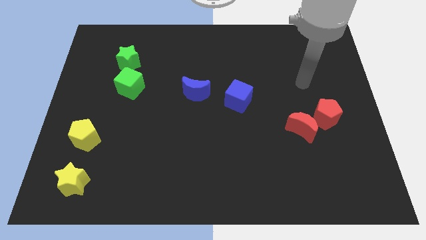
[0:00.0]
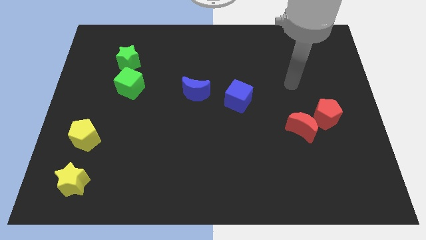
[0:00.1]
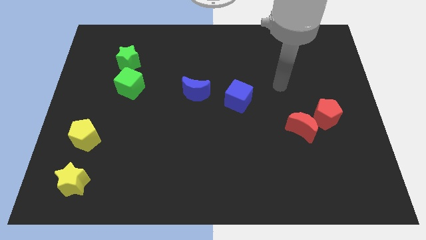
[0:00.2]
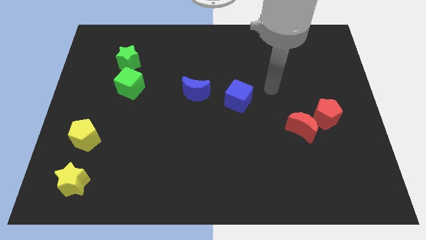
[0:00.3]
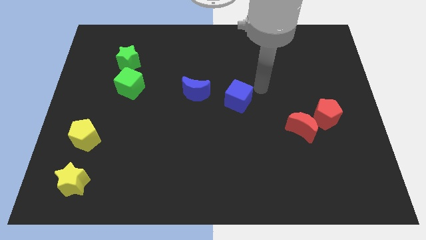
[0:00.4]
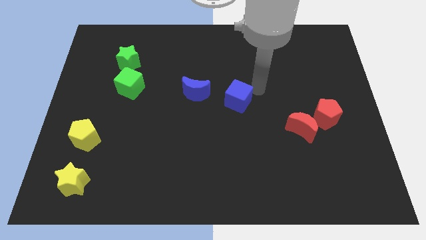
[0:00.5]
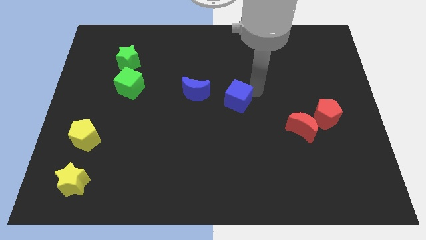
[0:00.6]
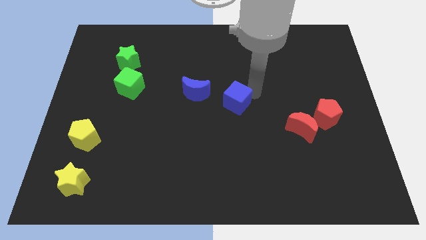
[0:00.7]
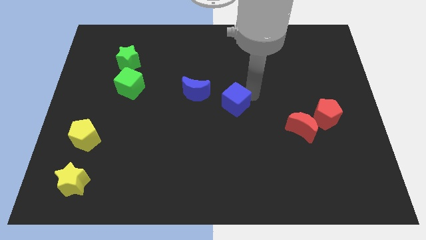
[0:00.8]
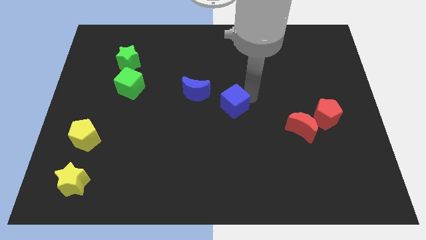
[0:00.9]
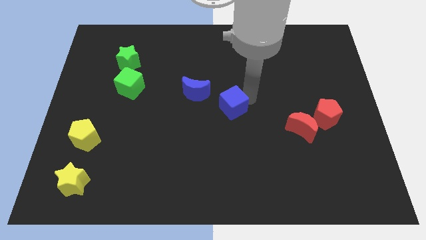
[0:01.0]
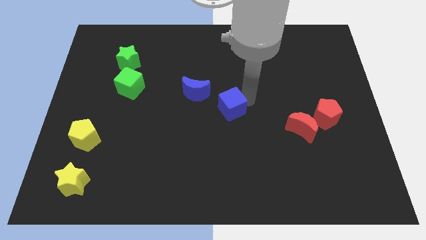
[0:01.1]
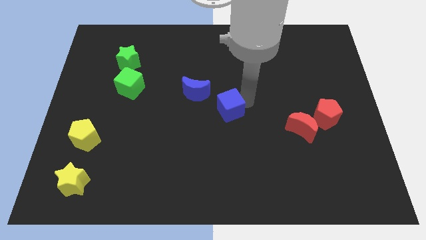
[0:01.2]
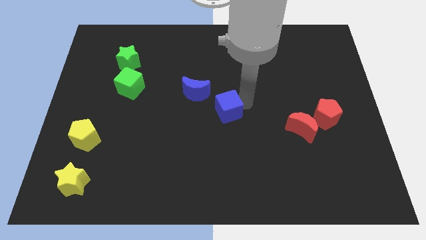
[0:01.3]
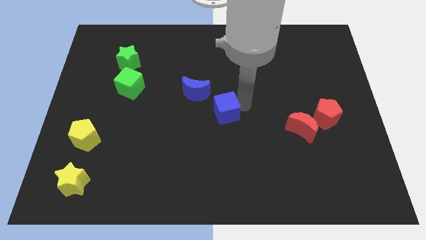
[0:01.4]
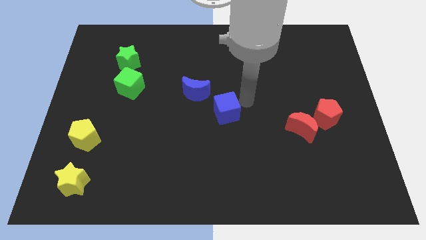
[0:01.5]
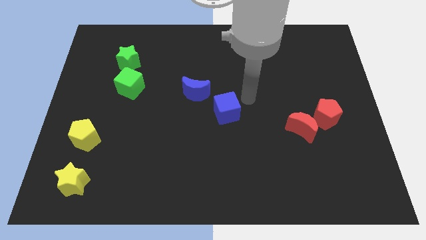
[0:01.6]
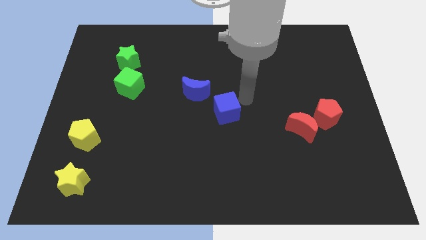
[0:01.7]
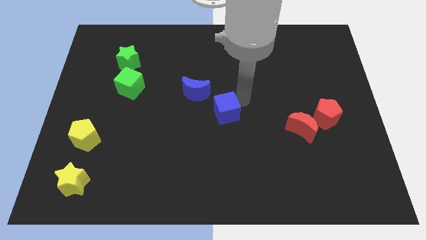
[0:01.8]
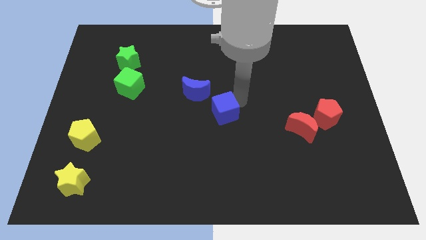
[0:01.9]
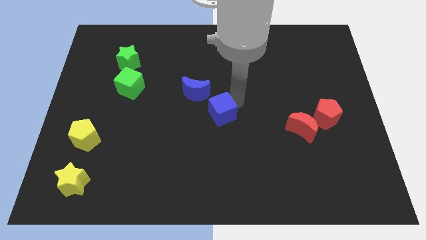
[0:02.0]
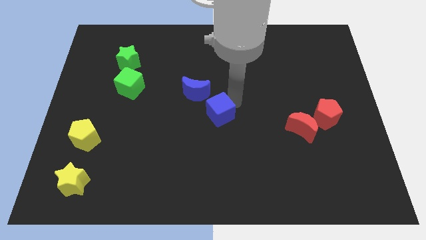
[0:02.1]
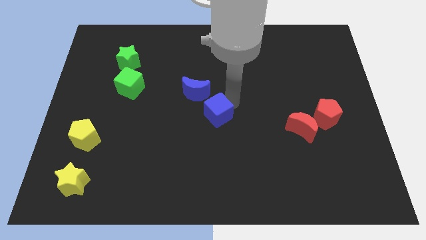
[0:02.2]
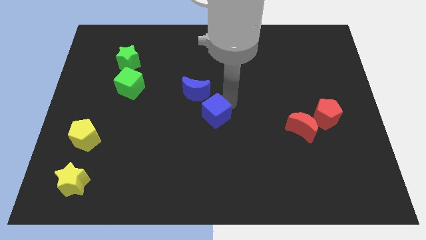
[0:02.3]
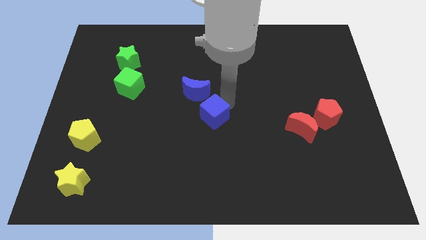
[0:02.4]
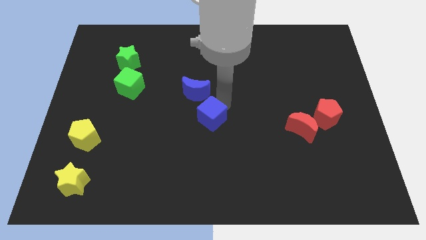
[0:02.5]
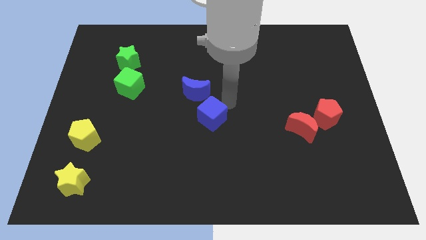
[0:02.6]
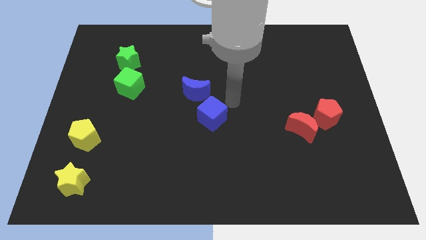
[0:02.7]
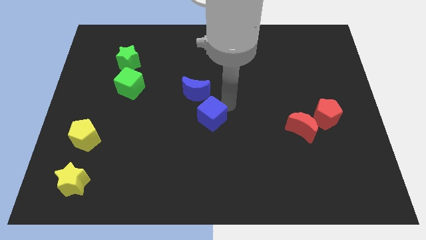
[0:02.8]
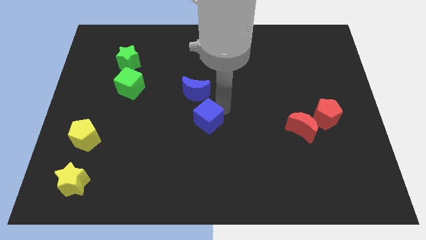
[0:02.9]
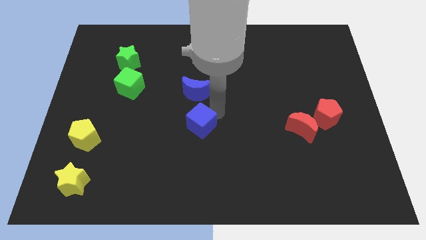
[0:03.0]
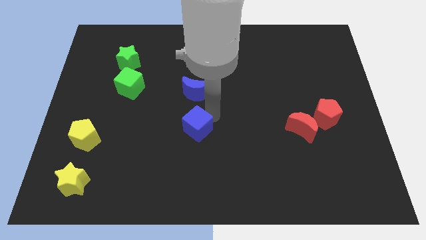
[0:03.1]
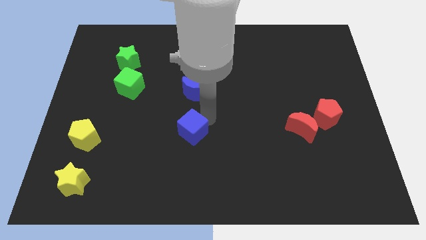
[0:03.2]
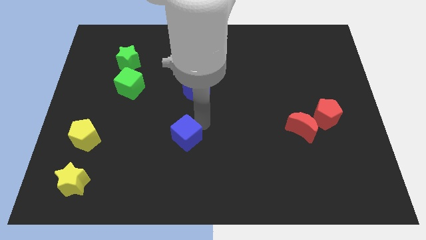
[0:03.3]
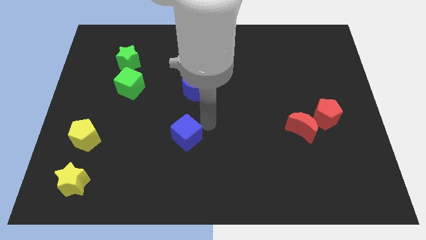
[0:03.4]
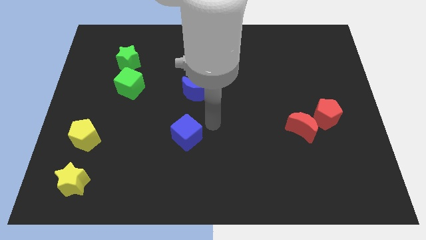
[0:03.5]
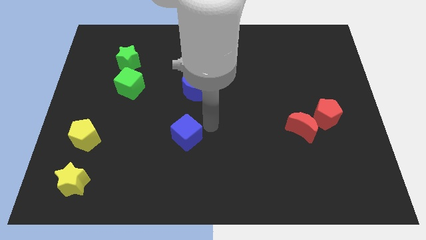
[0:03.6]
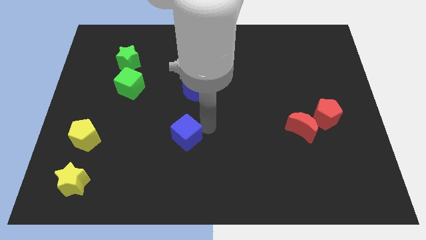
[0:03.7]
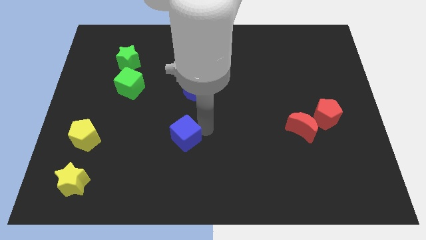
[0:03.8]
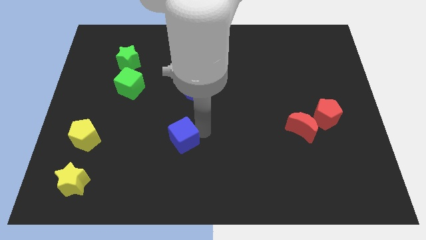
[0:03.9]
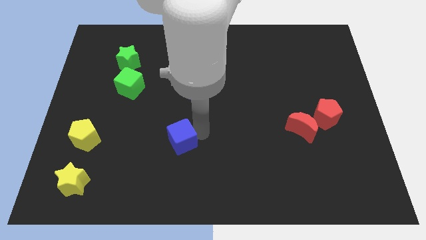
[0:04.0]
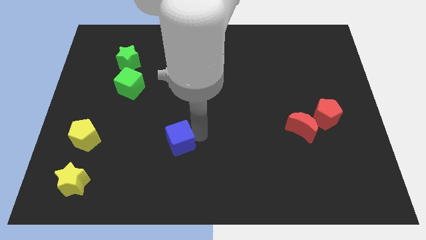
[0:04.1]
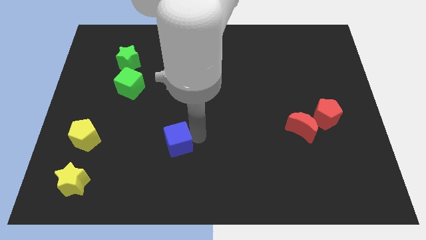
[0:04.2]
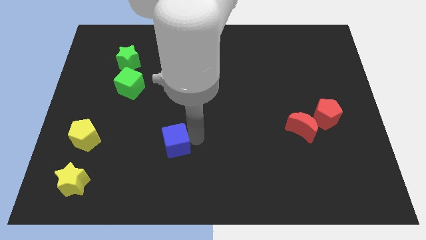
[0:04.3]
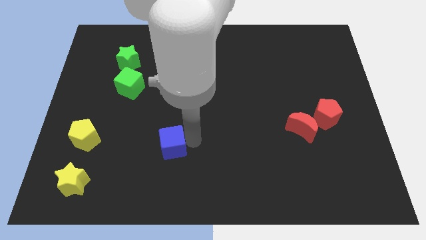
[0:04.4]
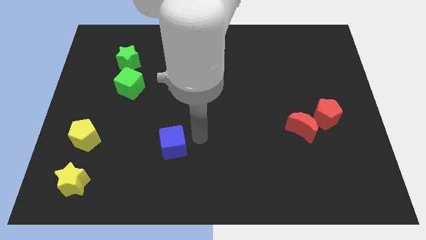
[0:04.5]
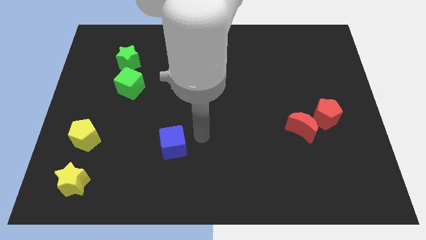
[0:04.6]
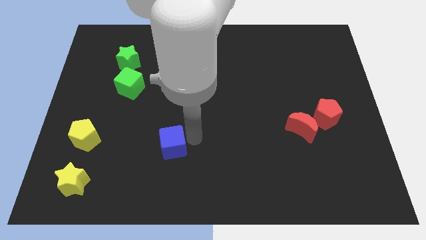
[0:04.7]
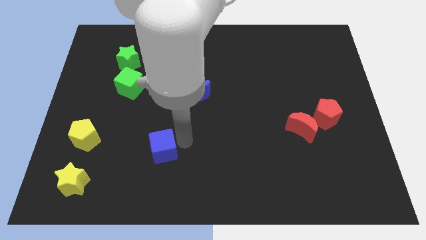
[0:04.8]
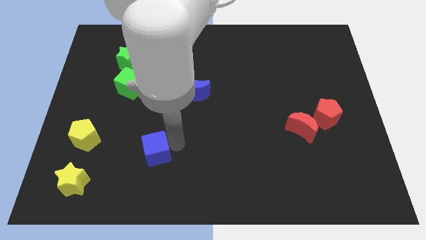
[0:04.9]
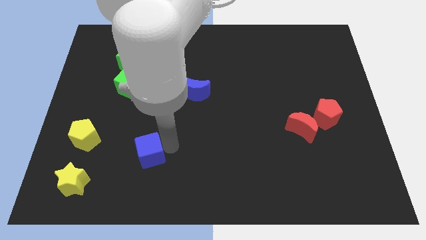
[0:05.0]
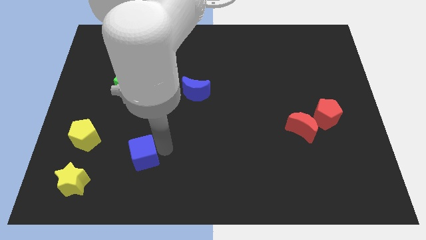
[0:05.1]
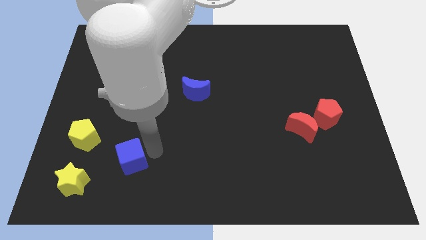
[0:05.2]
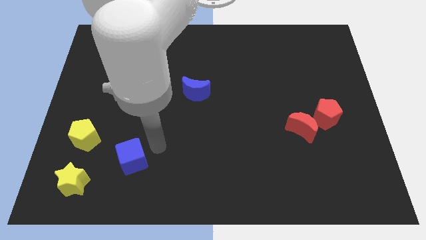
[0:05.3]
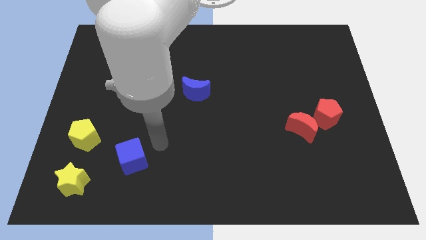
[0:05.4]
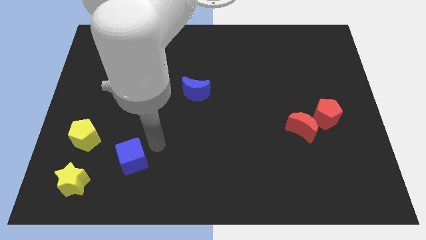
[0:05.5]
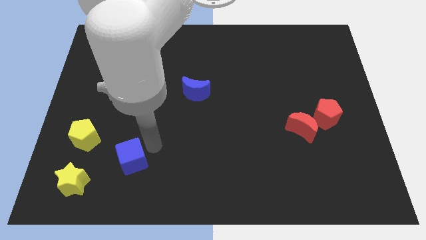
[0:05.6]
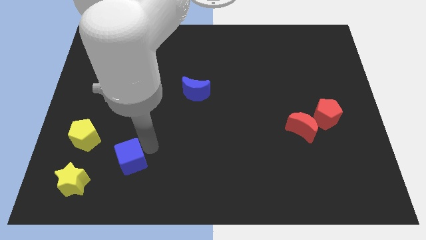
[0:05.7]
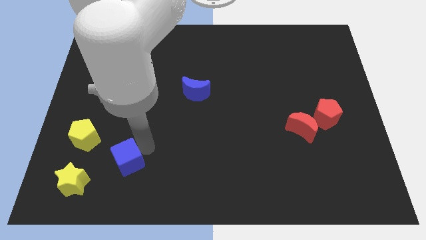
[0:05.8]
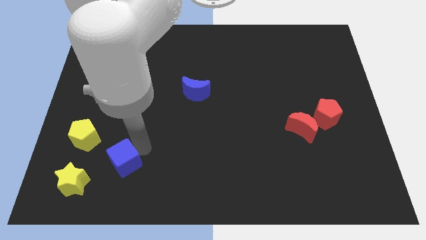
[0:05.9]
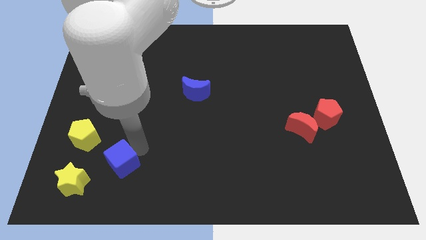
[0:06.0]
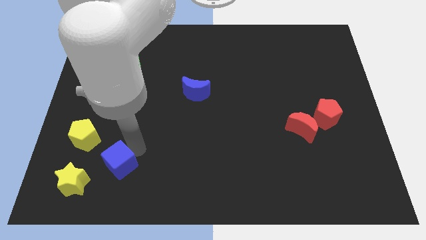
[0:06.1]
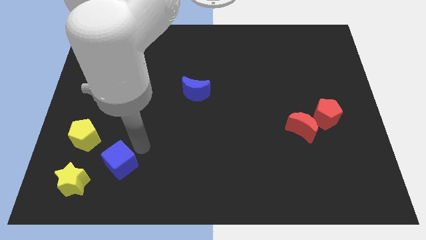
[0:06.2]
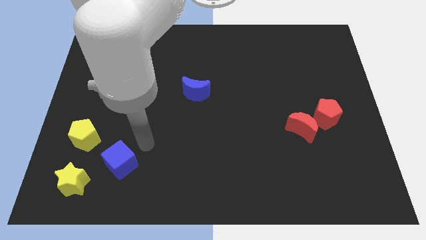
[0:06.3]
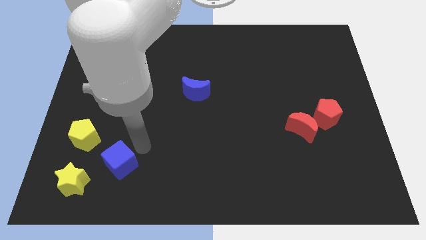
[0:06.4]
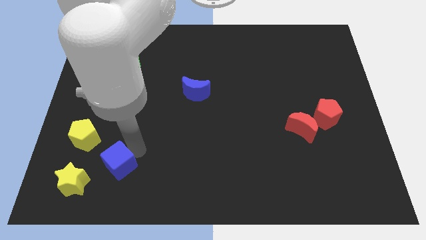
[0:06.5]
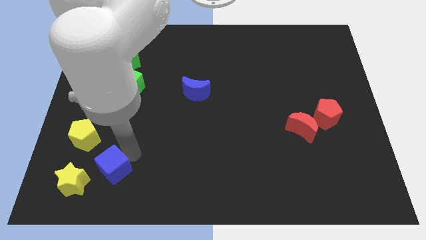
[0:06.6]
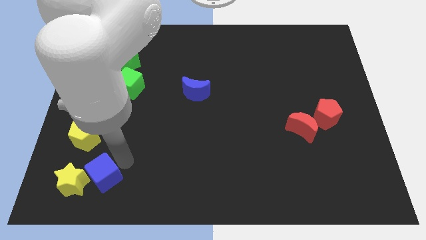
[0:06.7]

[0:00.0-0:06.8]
put the blue cube close to the yellow star
